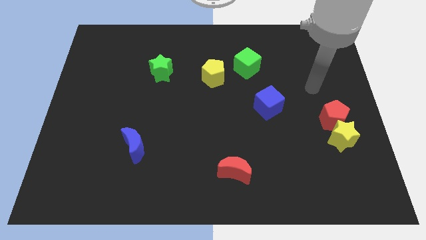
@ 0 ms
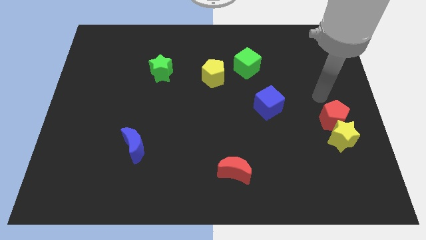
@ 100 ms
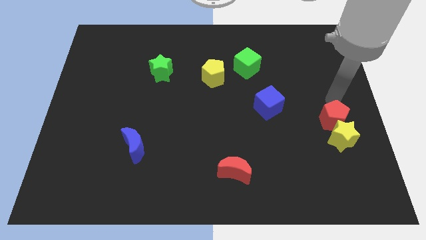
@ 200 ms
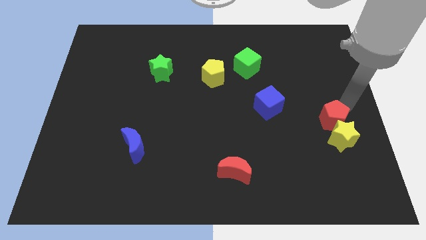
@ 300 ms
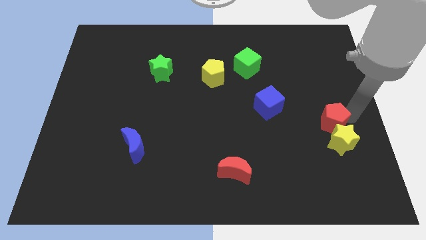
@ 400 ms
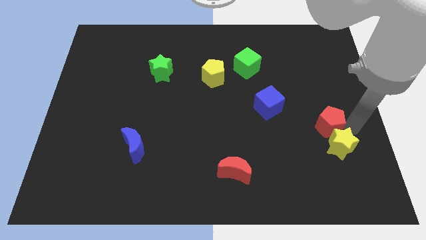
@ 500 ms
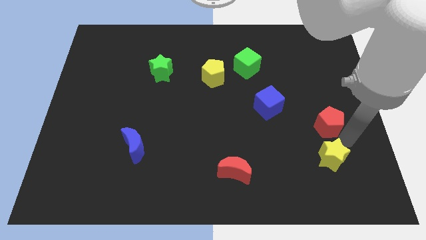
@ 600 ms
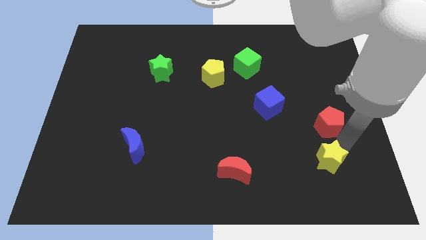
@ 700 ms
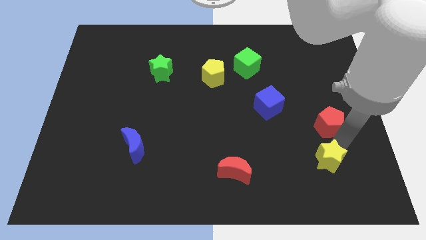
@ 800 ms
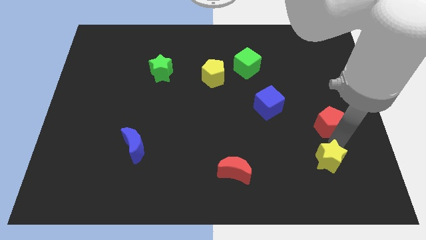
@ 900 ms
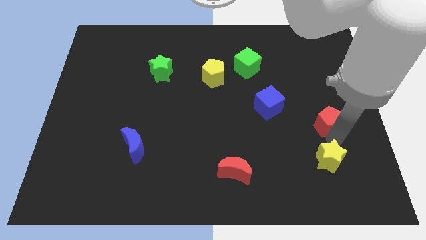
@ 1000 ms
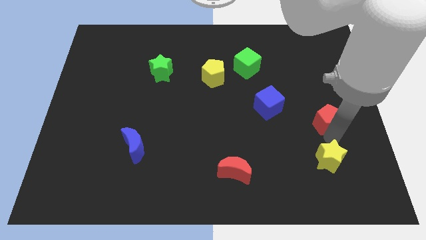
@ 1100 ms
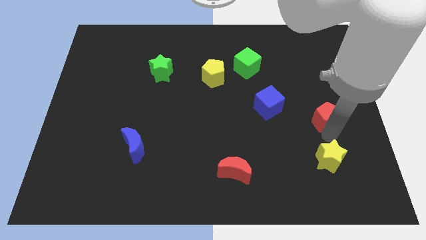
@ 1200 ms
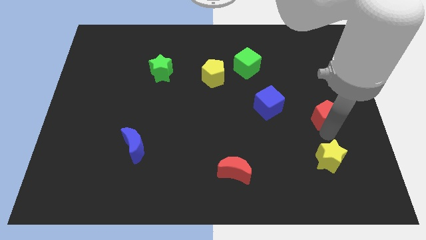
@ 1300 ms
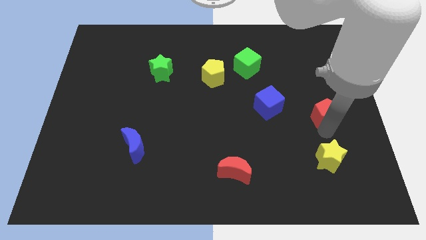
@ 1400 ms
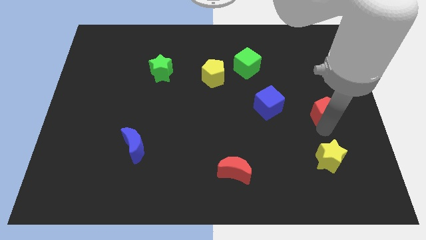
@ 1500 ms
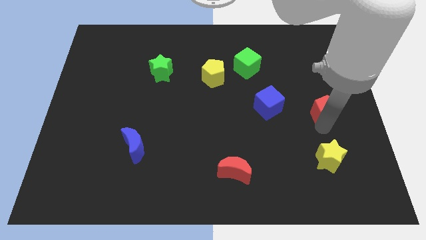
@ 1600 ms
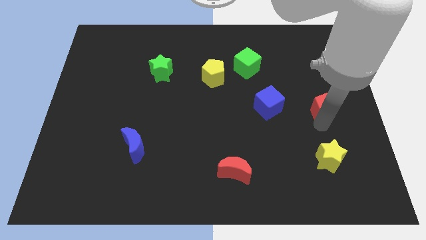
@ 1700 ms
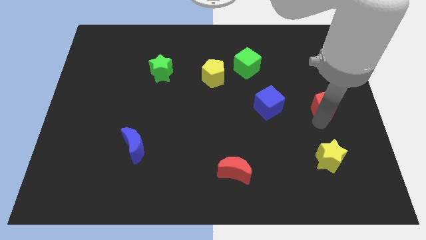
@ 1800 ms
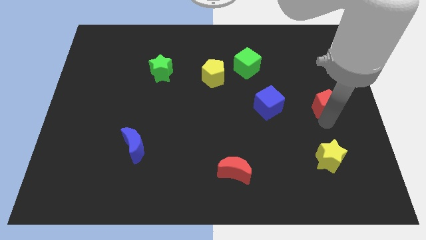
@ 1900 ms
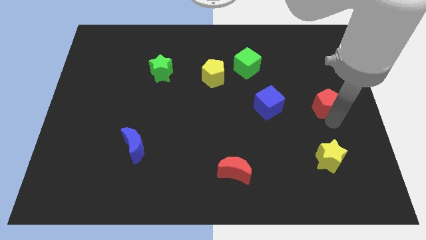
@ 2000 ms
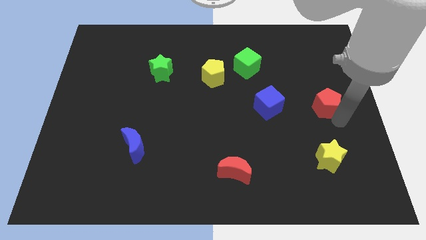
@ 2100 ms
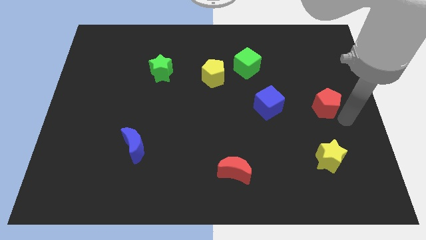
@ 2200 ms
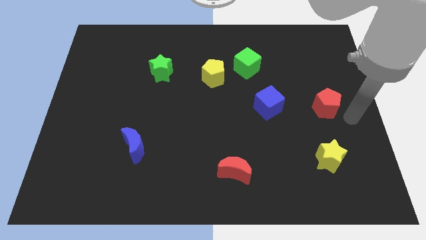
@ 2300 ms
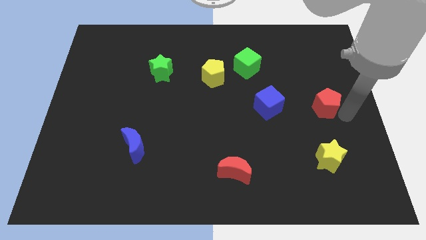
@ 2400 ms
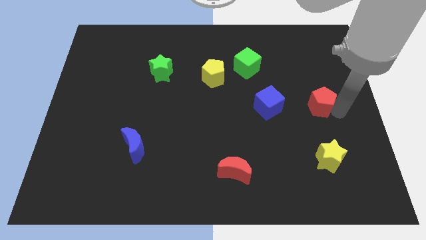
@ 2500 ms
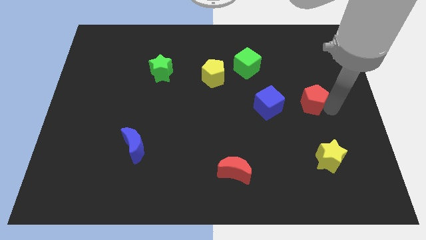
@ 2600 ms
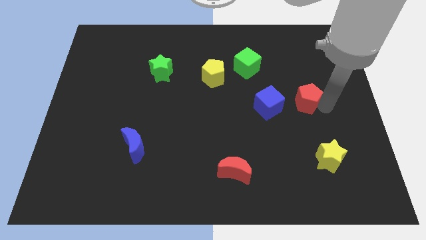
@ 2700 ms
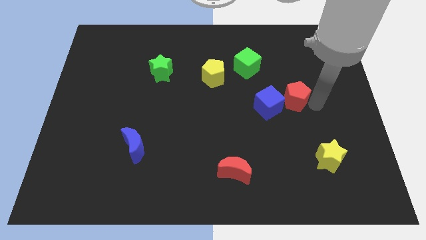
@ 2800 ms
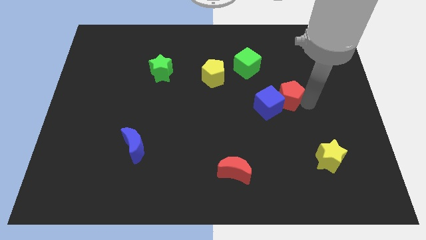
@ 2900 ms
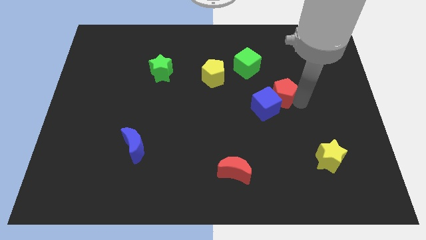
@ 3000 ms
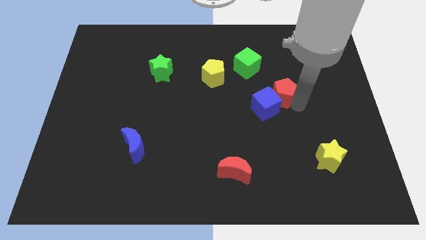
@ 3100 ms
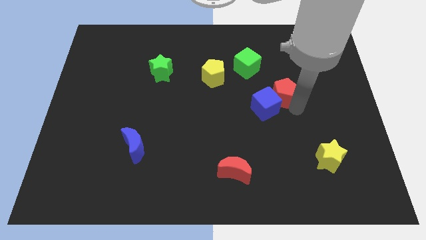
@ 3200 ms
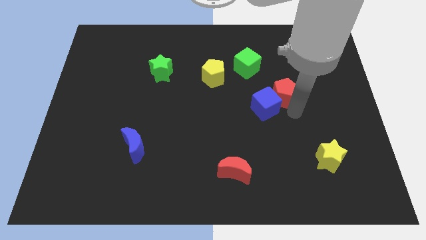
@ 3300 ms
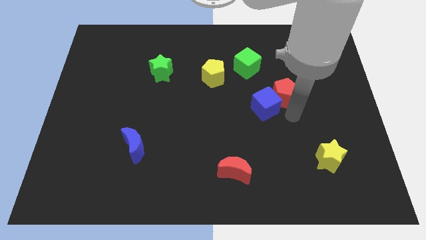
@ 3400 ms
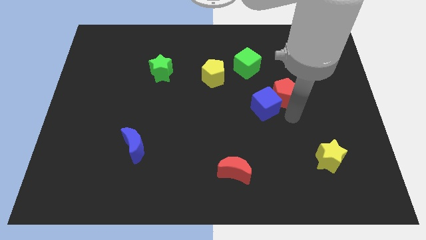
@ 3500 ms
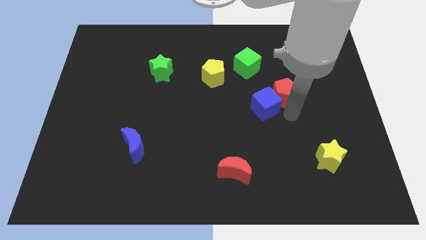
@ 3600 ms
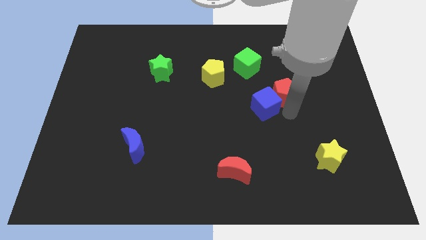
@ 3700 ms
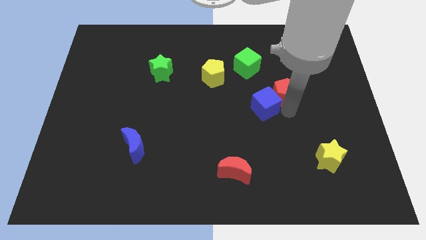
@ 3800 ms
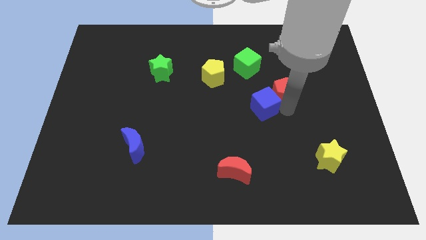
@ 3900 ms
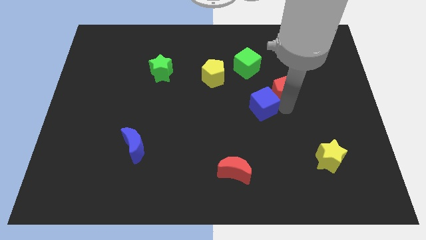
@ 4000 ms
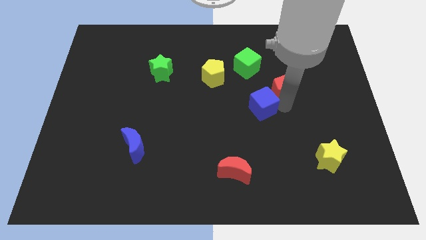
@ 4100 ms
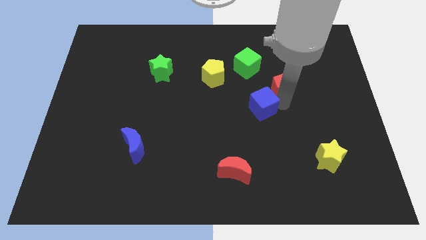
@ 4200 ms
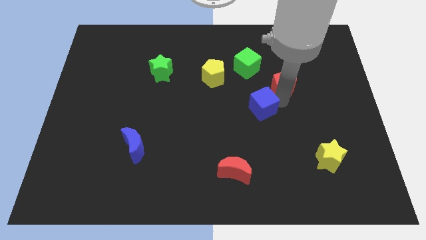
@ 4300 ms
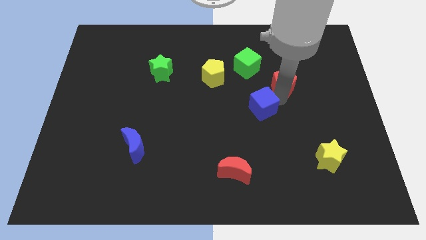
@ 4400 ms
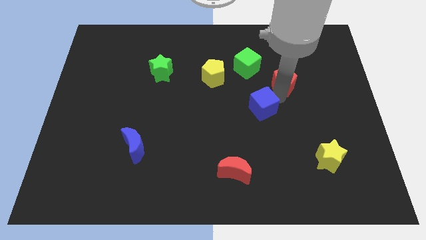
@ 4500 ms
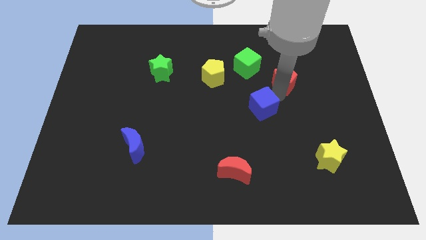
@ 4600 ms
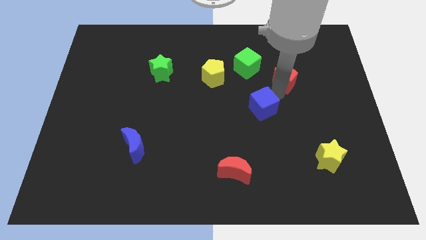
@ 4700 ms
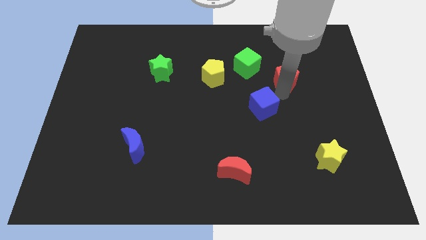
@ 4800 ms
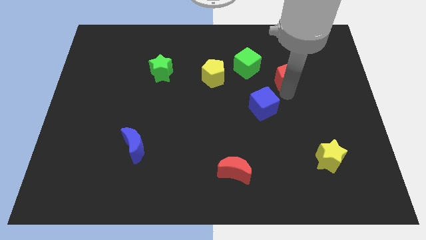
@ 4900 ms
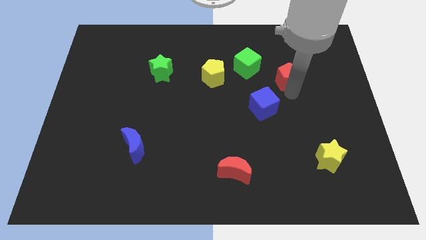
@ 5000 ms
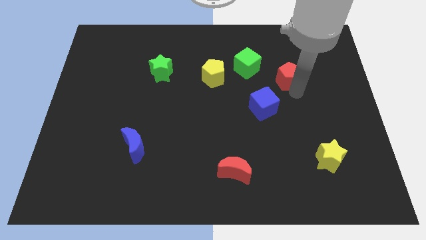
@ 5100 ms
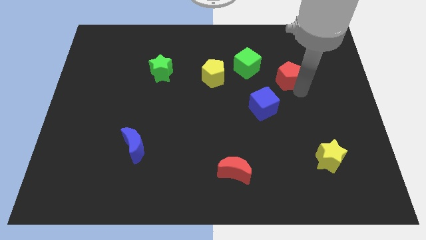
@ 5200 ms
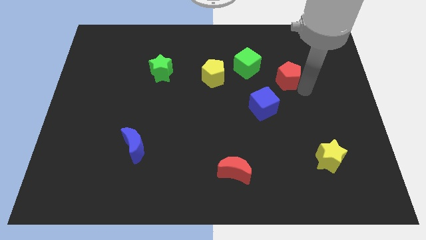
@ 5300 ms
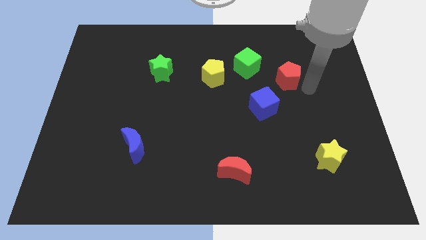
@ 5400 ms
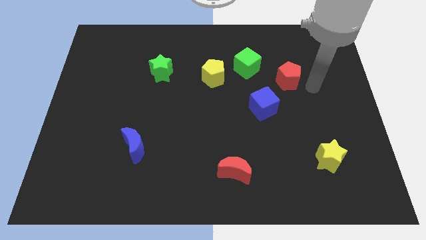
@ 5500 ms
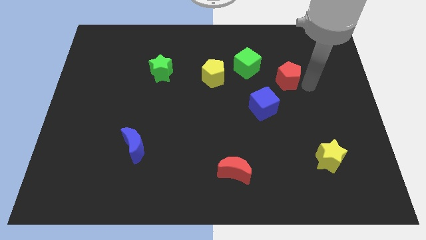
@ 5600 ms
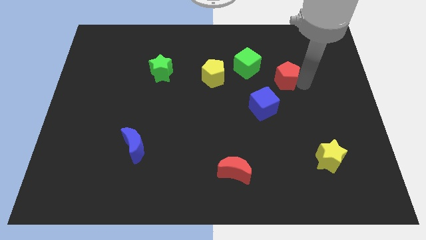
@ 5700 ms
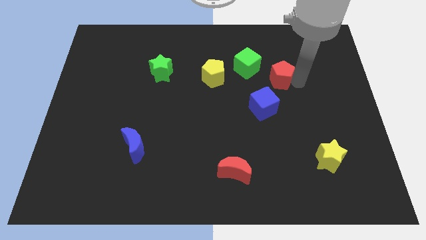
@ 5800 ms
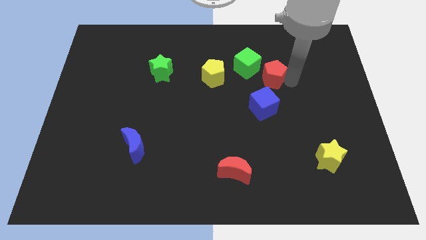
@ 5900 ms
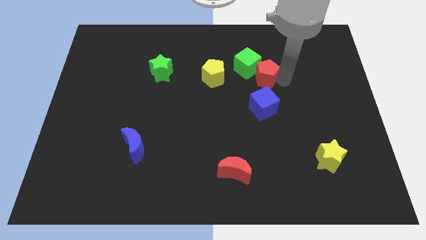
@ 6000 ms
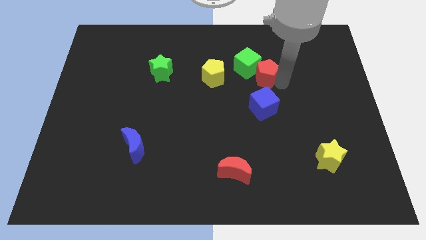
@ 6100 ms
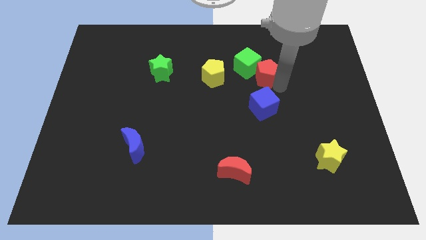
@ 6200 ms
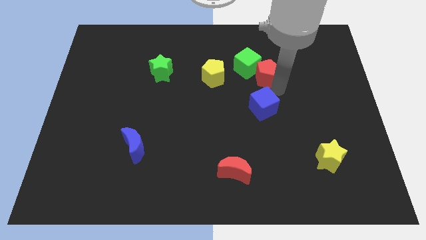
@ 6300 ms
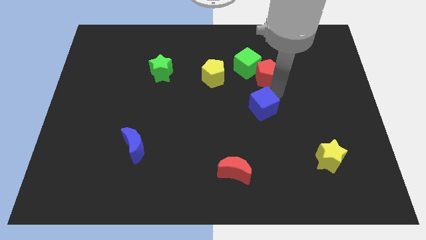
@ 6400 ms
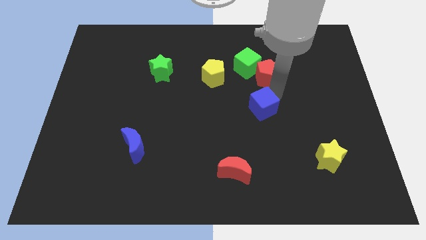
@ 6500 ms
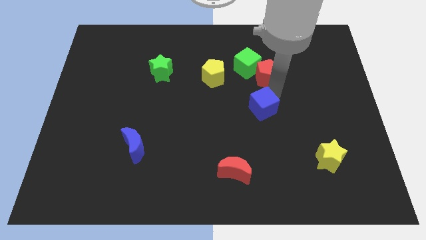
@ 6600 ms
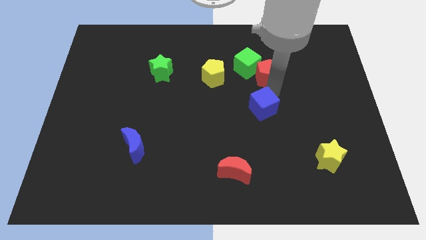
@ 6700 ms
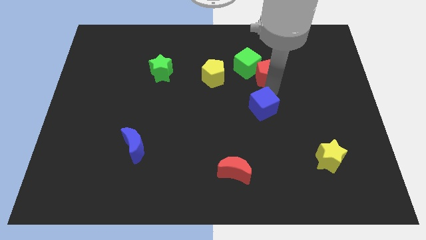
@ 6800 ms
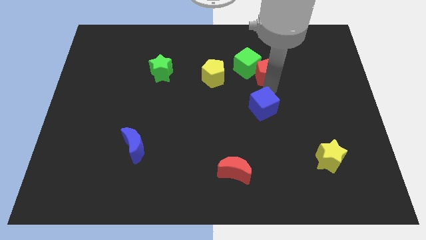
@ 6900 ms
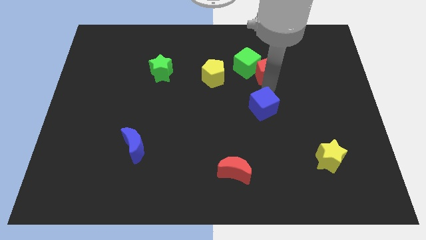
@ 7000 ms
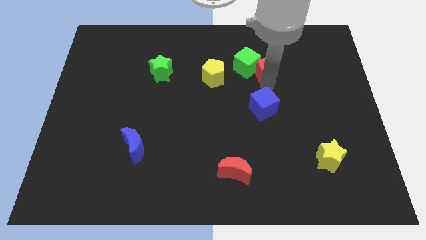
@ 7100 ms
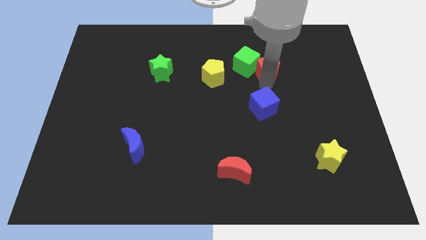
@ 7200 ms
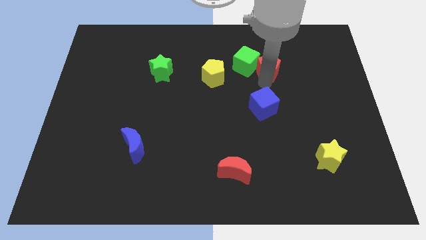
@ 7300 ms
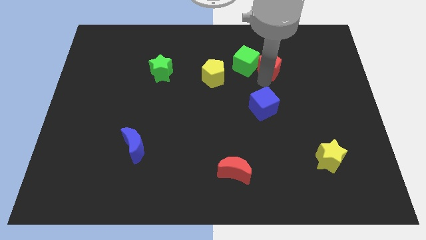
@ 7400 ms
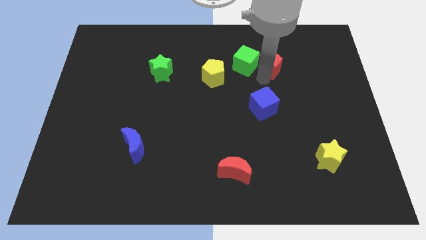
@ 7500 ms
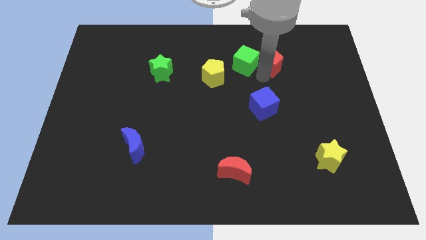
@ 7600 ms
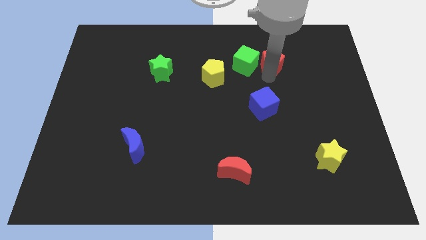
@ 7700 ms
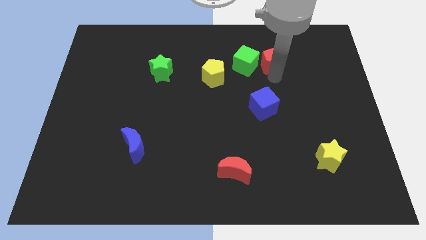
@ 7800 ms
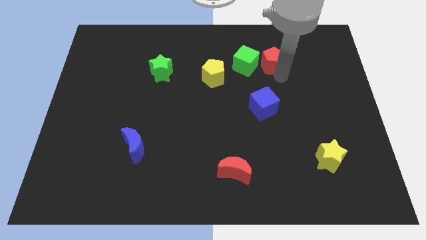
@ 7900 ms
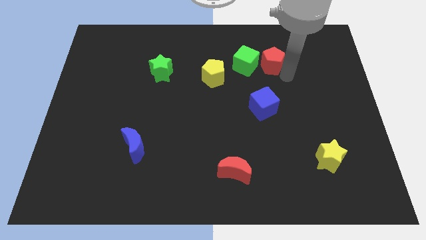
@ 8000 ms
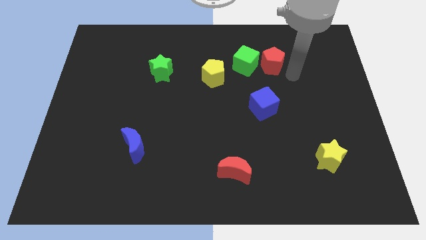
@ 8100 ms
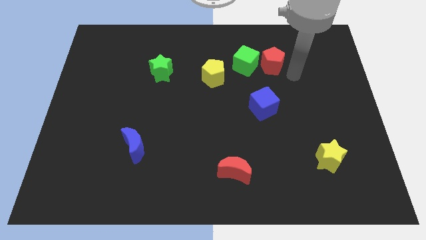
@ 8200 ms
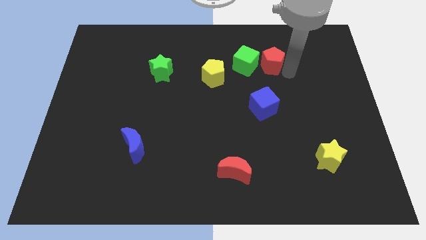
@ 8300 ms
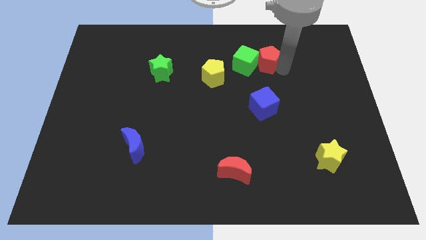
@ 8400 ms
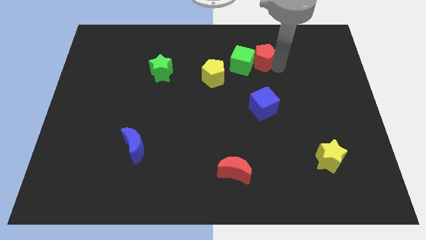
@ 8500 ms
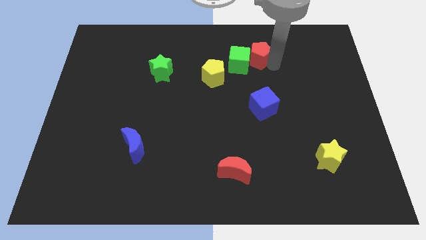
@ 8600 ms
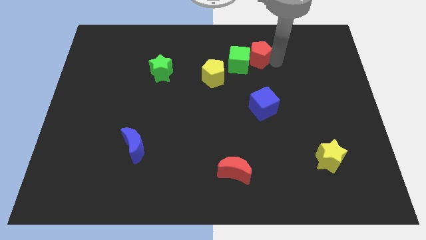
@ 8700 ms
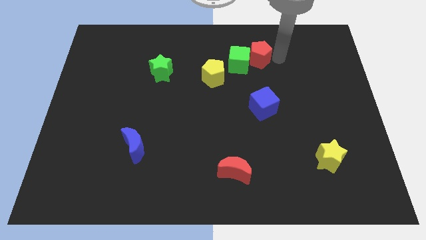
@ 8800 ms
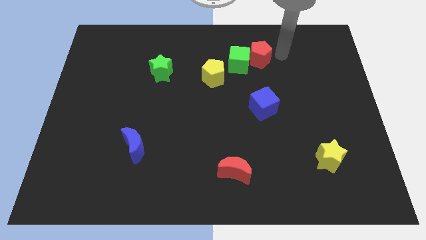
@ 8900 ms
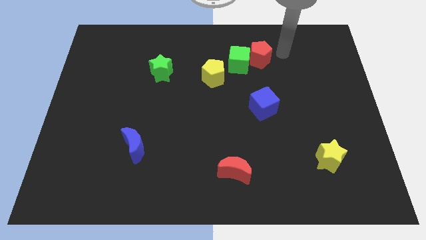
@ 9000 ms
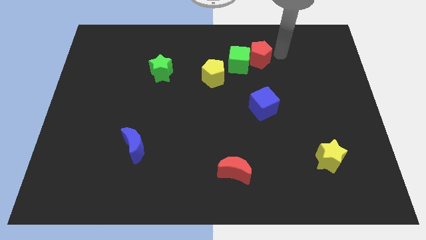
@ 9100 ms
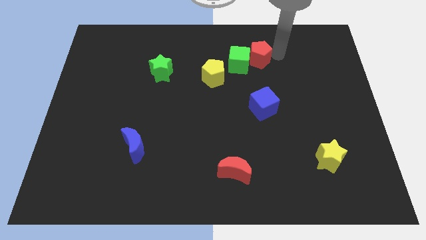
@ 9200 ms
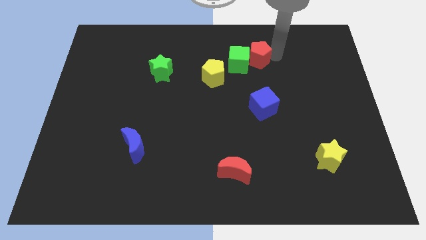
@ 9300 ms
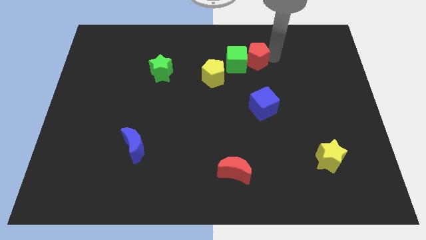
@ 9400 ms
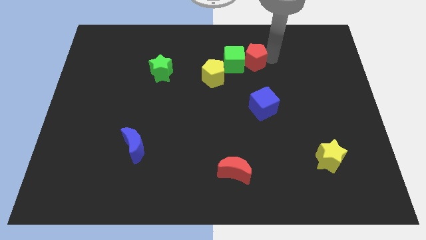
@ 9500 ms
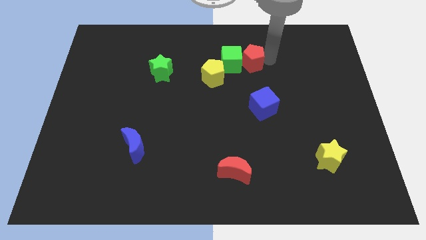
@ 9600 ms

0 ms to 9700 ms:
push the red pentagon to the top right of the yellow pentagon
